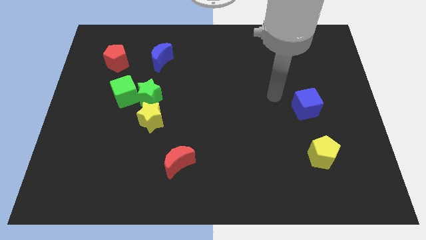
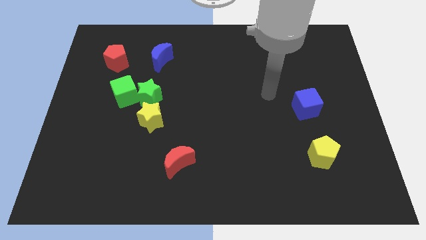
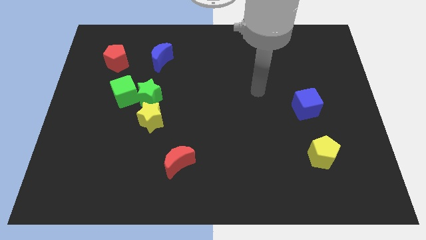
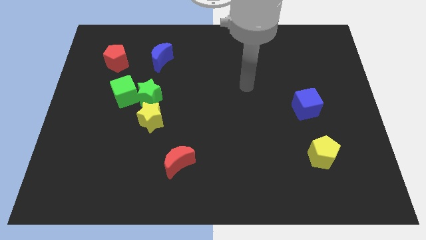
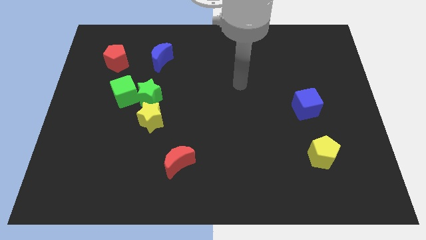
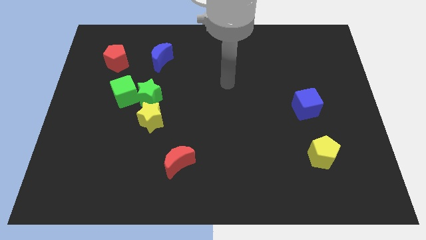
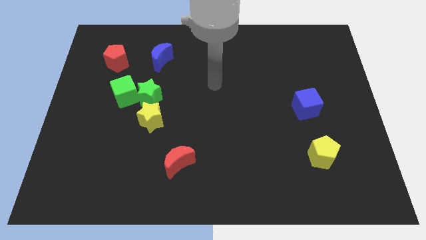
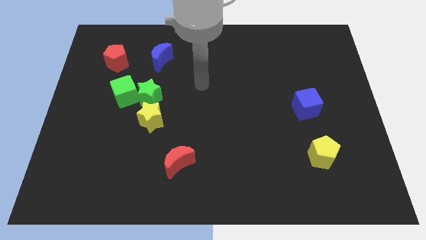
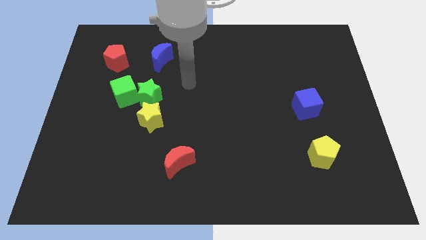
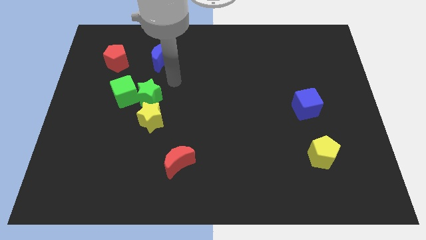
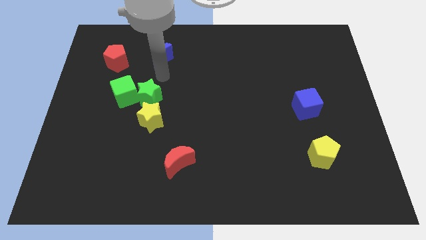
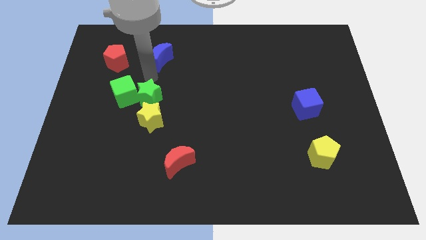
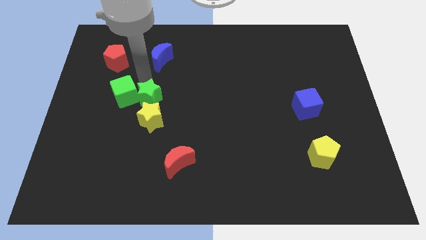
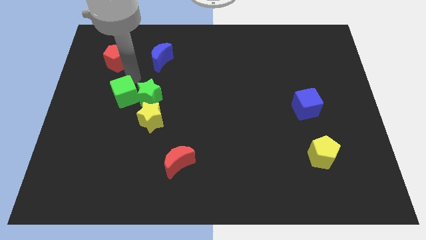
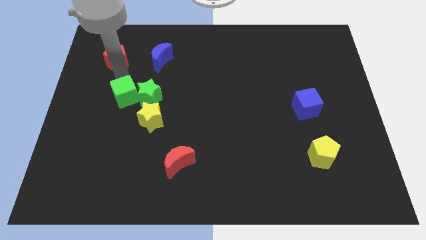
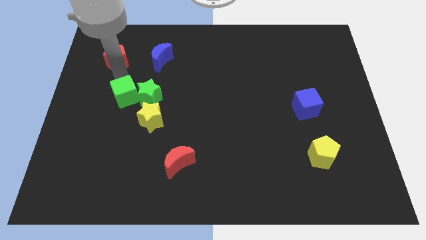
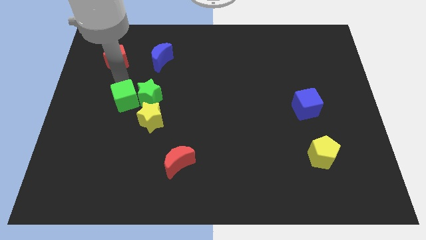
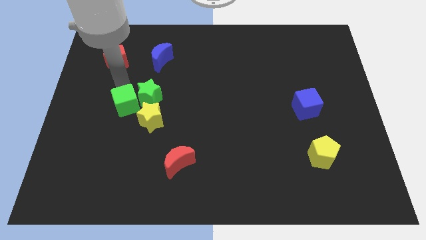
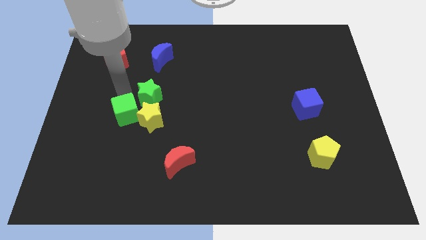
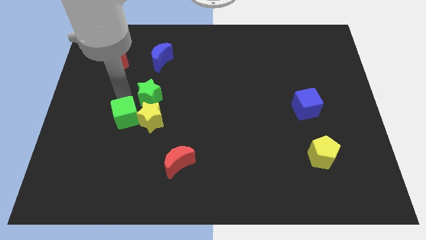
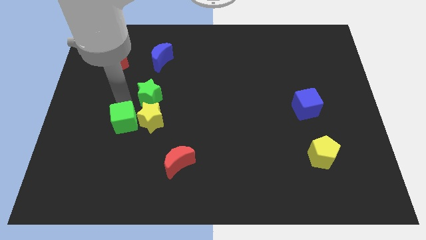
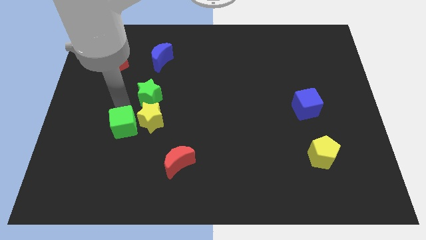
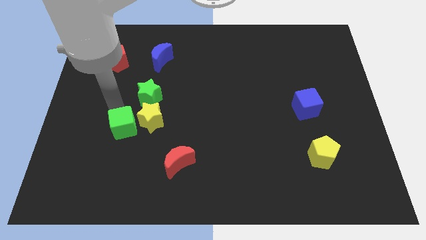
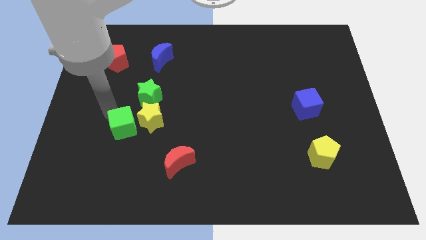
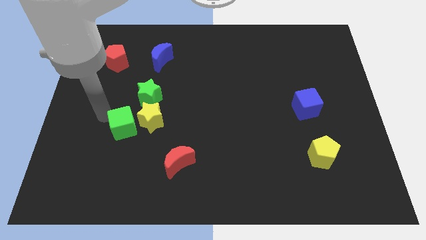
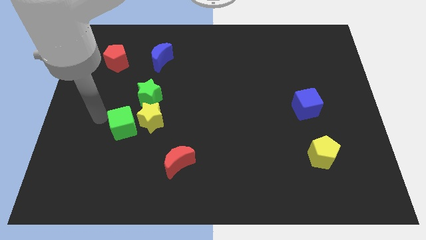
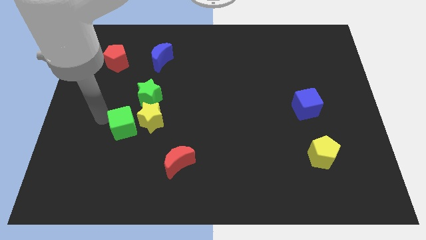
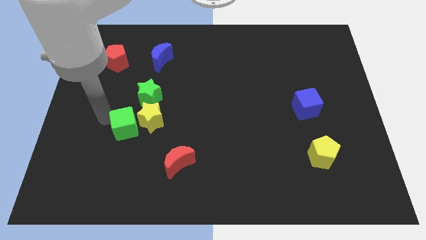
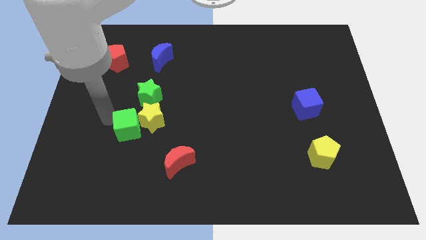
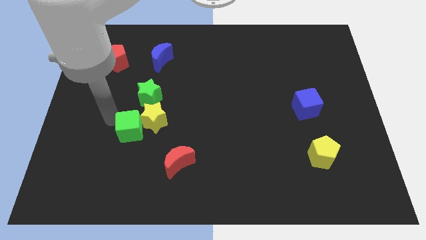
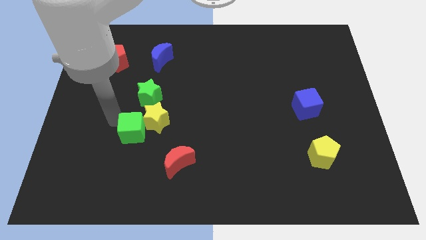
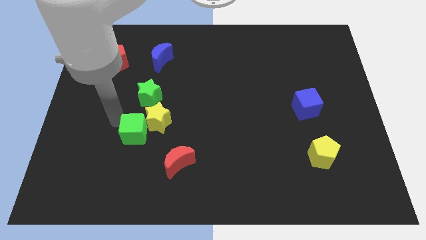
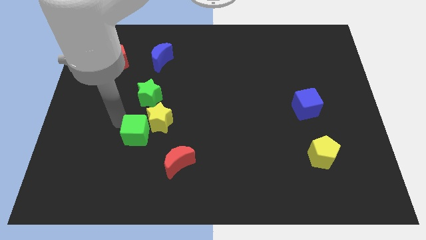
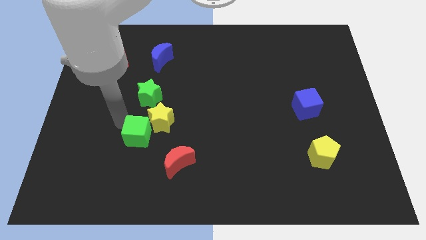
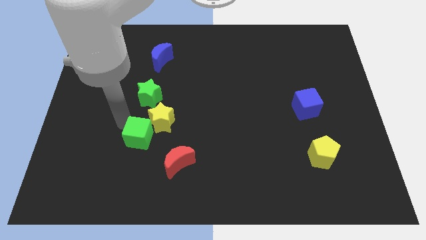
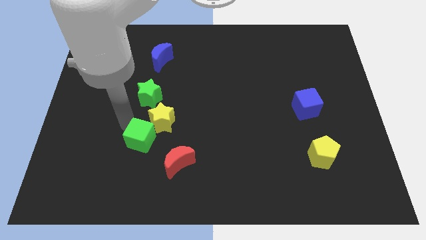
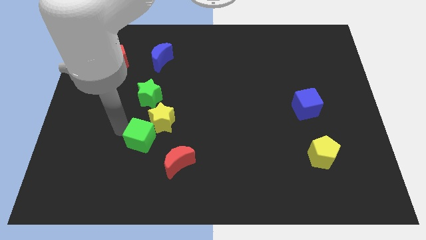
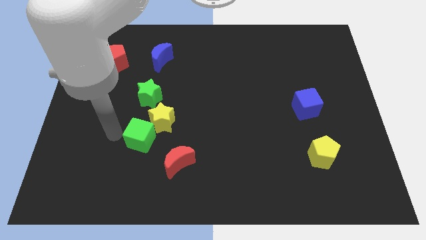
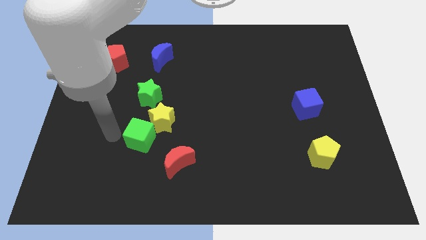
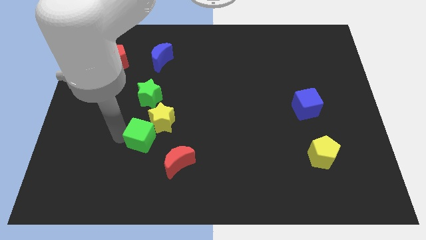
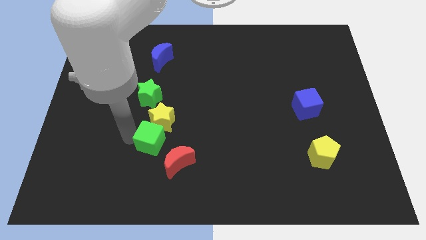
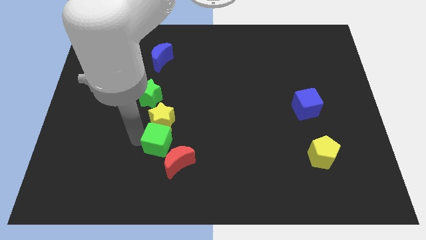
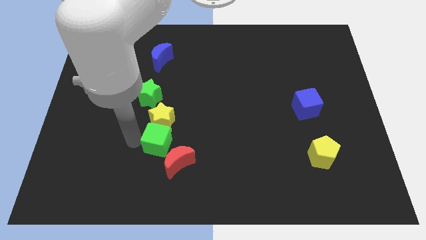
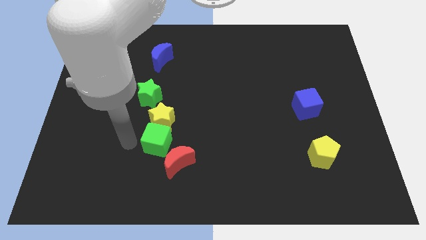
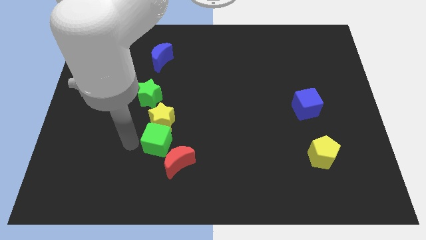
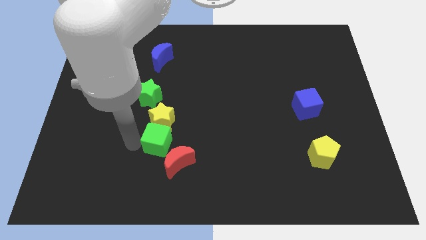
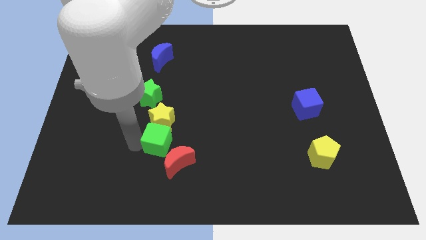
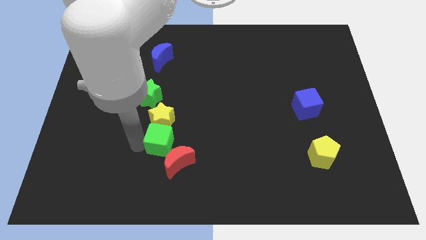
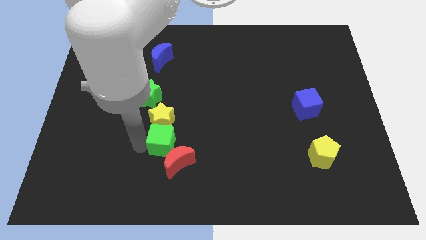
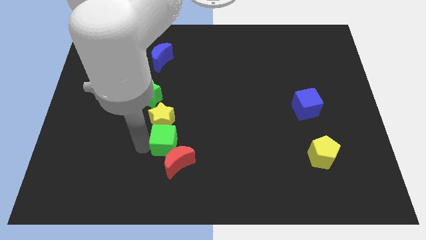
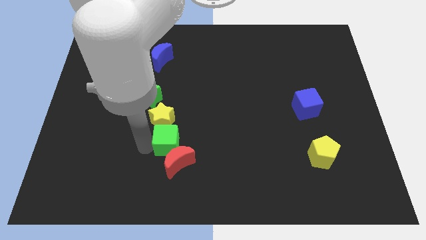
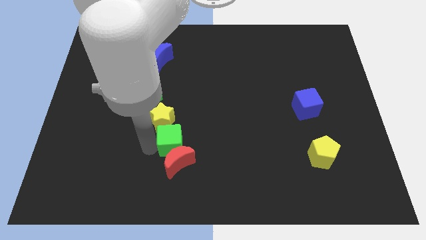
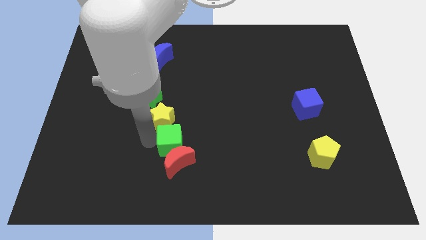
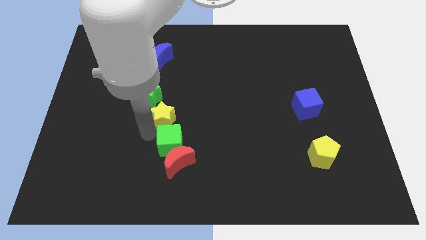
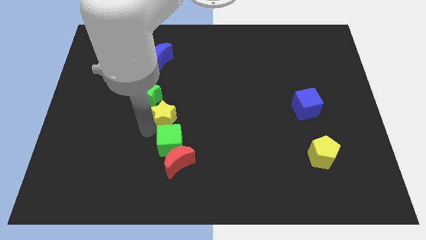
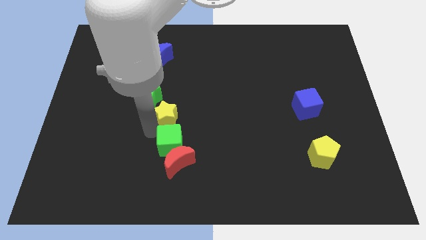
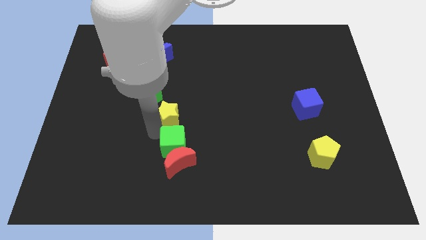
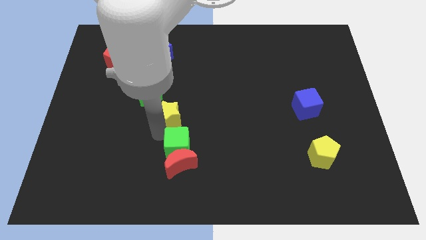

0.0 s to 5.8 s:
move the green cube down and right

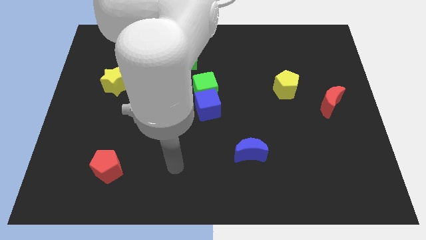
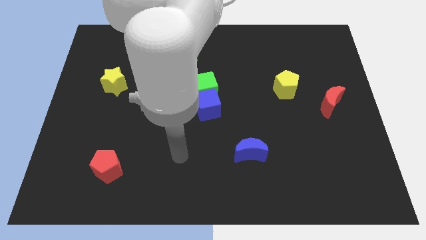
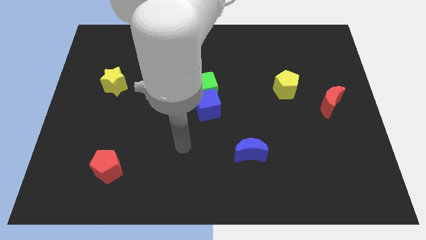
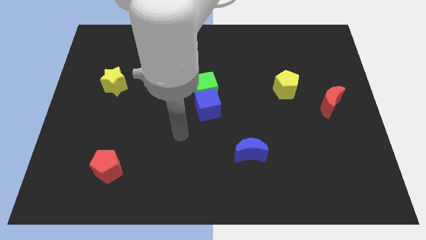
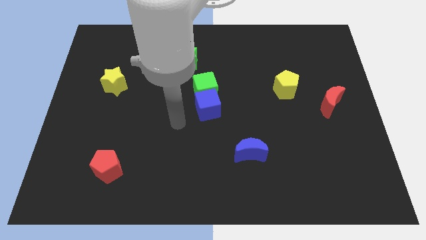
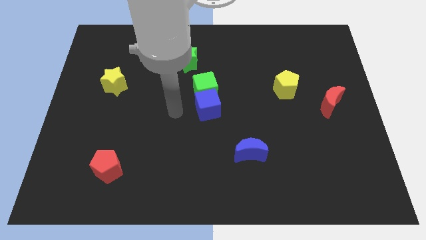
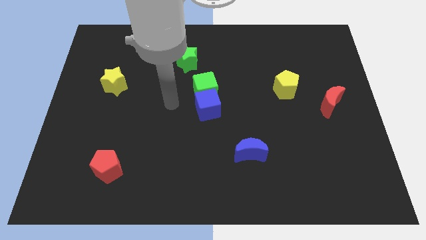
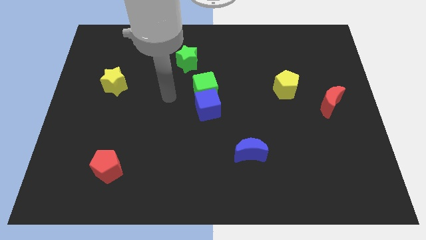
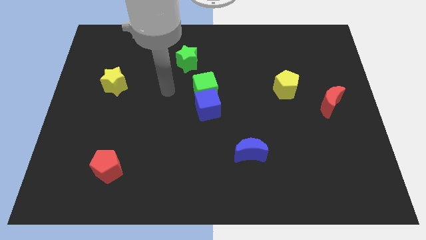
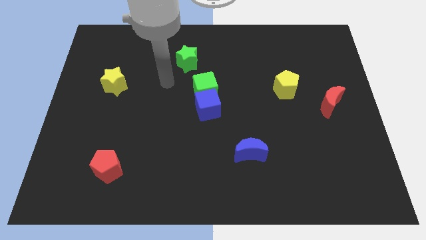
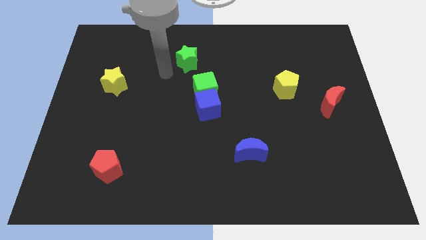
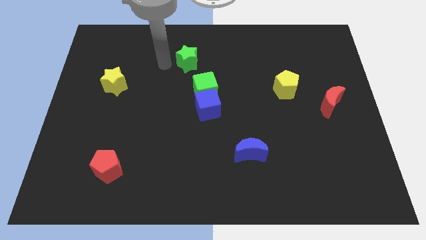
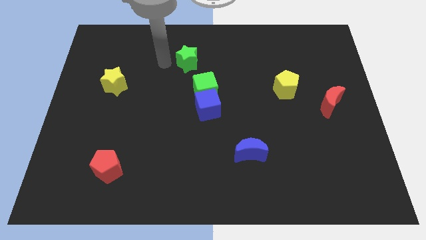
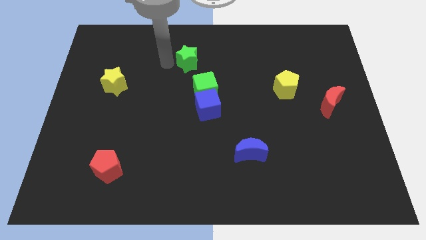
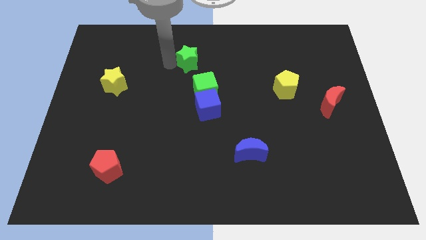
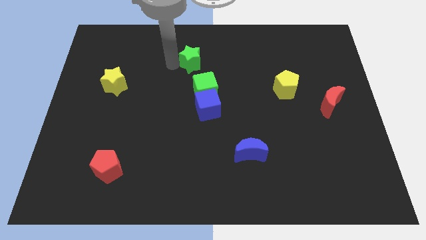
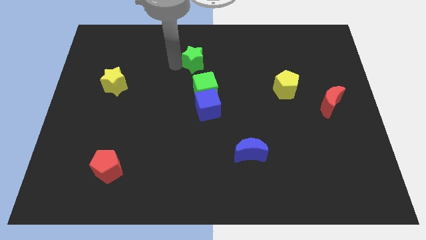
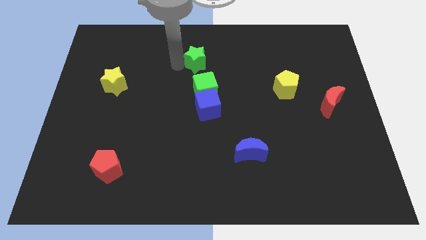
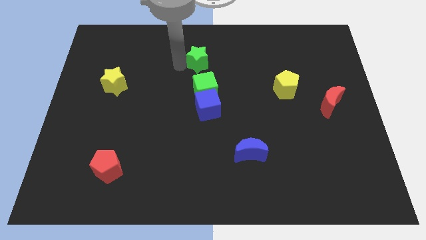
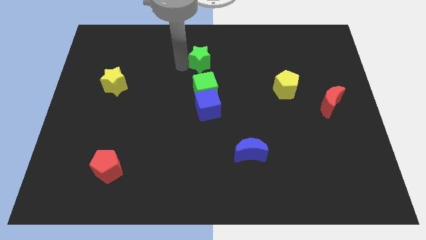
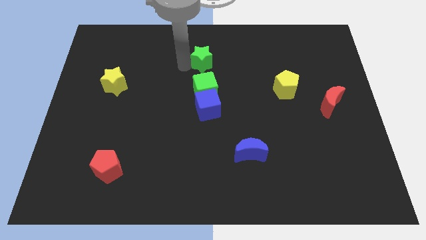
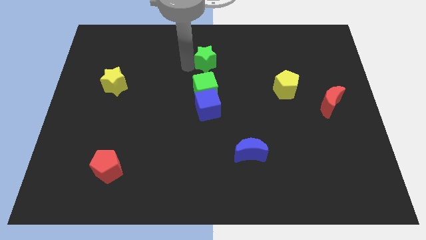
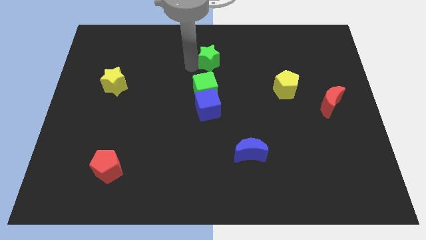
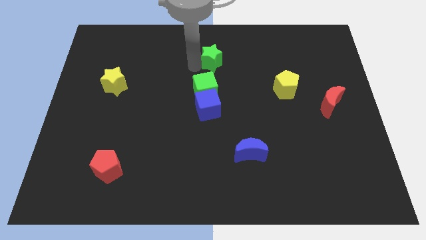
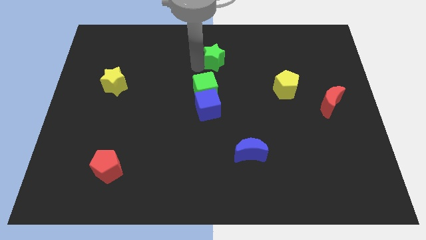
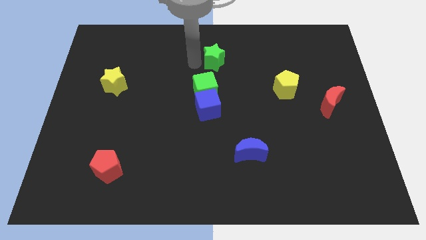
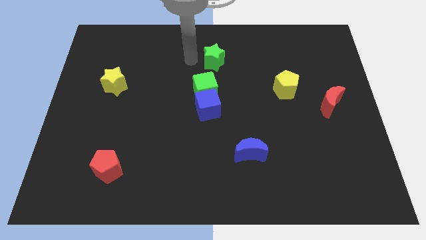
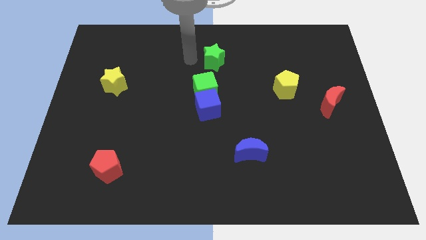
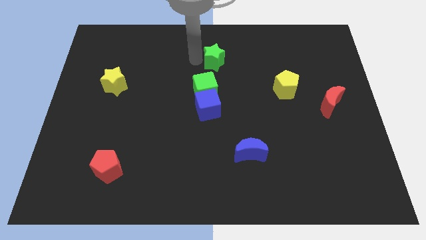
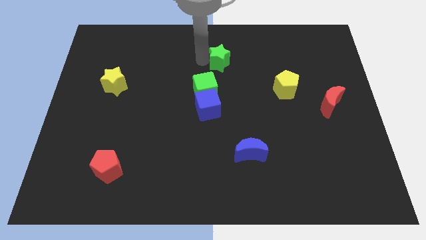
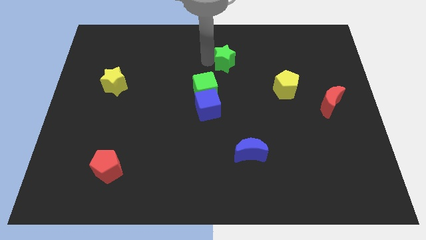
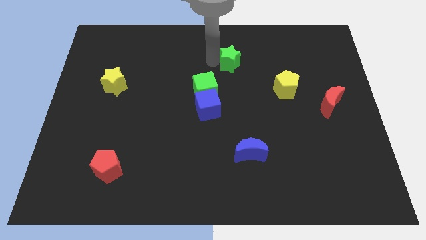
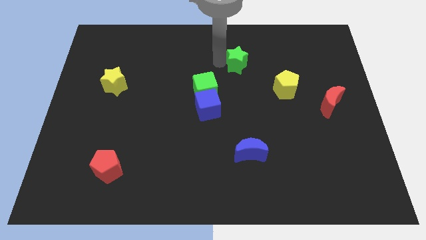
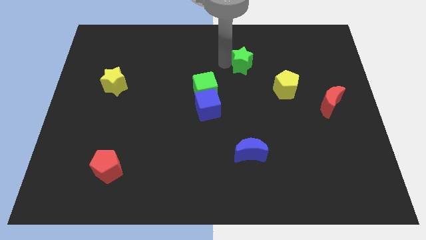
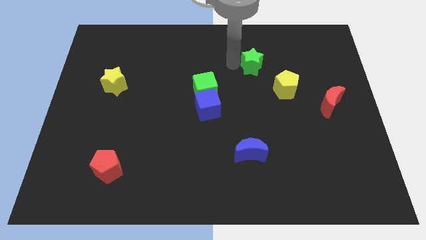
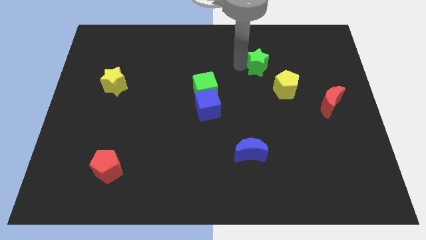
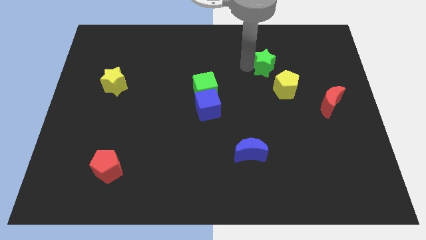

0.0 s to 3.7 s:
slide the green star right
